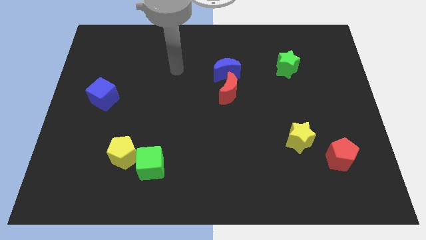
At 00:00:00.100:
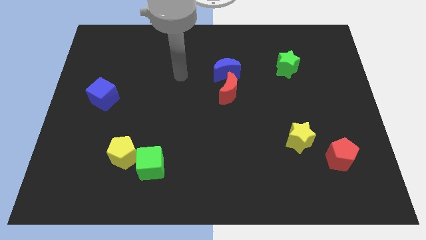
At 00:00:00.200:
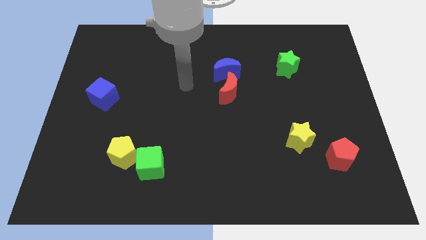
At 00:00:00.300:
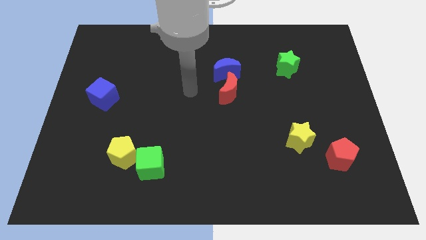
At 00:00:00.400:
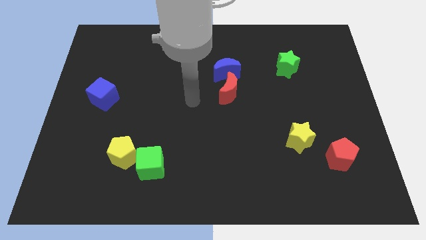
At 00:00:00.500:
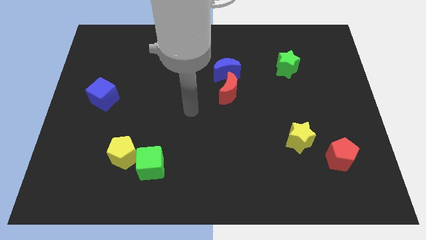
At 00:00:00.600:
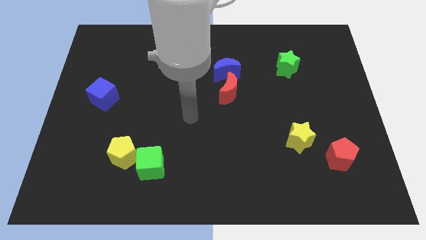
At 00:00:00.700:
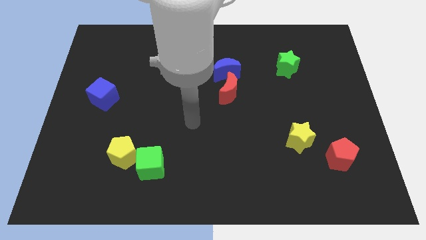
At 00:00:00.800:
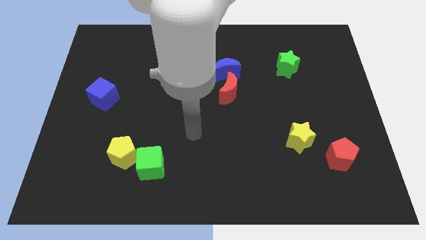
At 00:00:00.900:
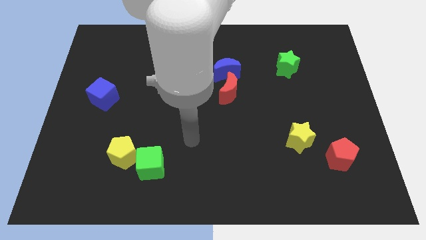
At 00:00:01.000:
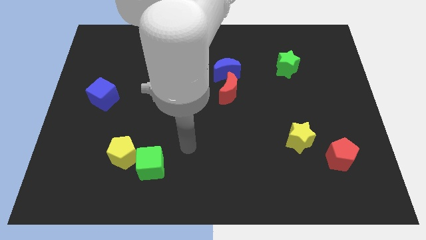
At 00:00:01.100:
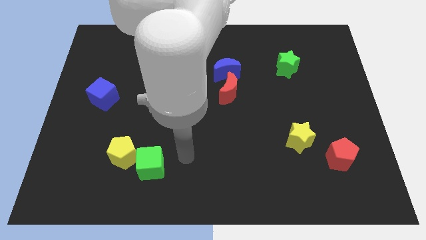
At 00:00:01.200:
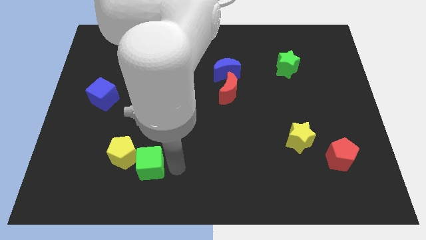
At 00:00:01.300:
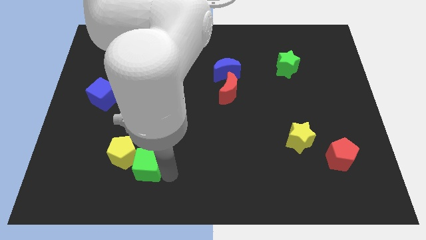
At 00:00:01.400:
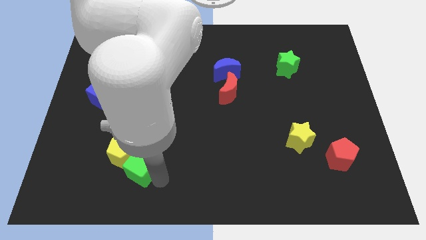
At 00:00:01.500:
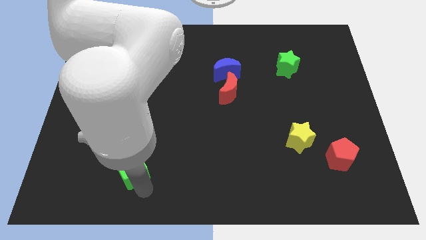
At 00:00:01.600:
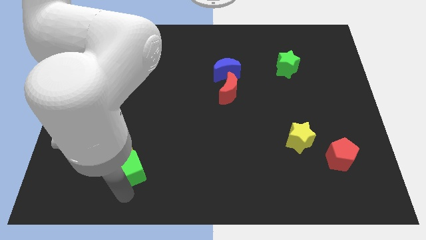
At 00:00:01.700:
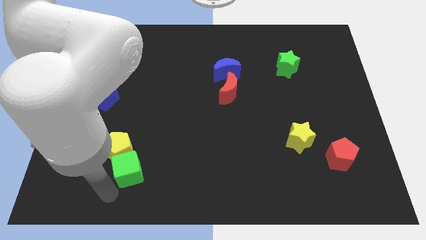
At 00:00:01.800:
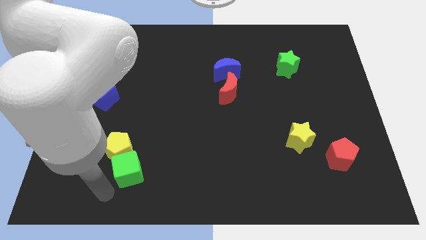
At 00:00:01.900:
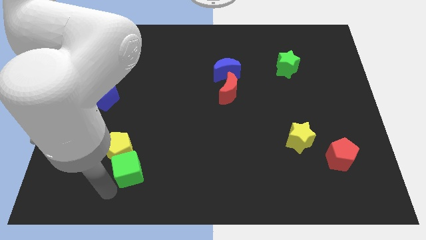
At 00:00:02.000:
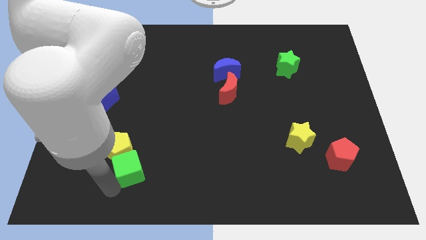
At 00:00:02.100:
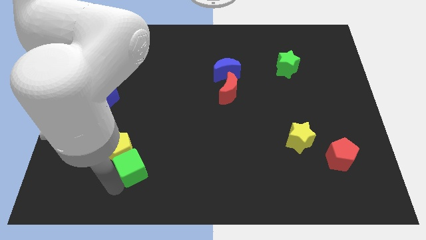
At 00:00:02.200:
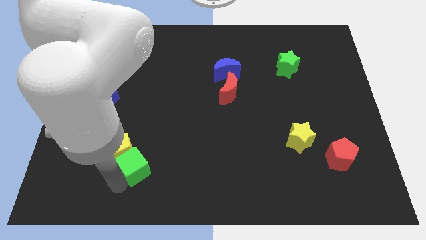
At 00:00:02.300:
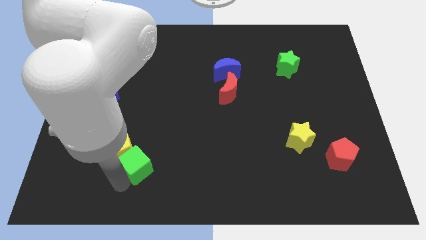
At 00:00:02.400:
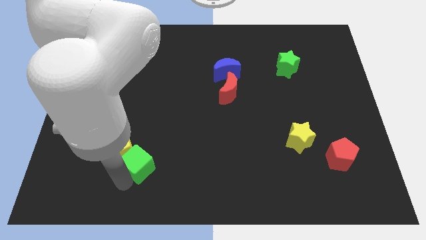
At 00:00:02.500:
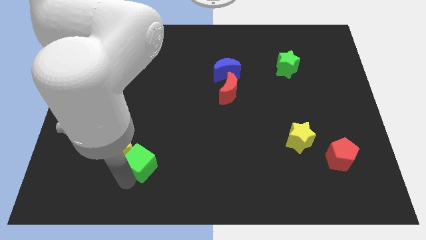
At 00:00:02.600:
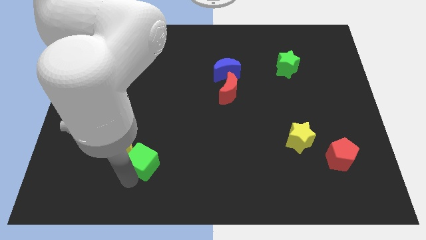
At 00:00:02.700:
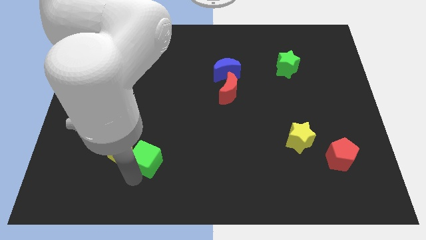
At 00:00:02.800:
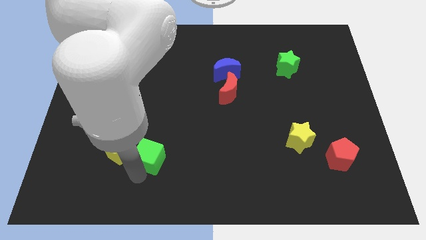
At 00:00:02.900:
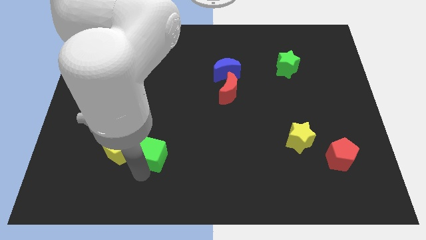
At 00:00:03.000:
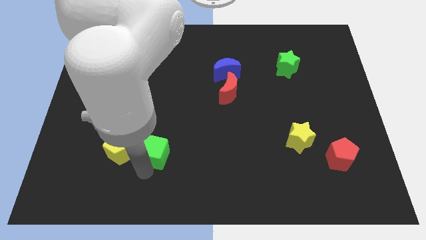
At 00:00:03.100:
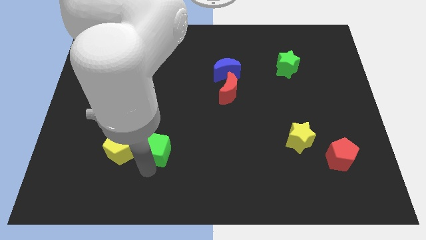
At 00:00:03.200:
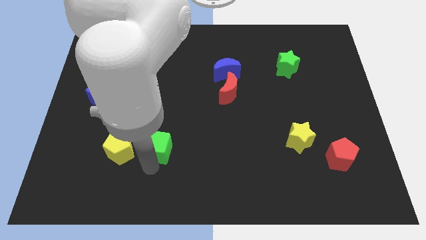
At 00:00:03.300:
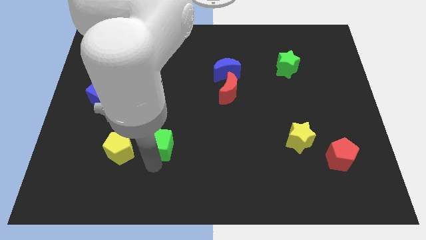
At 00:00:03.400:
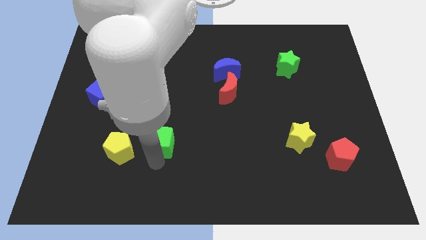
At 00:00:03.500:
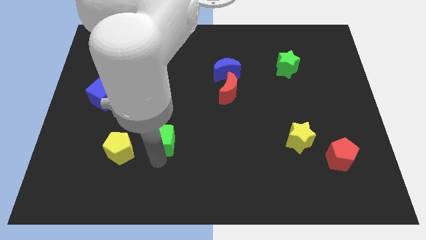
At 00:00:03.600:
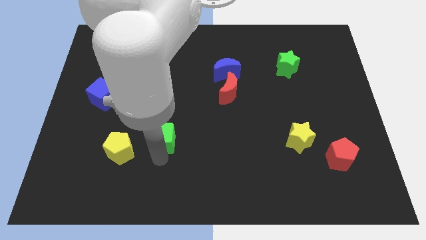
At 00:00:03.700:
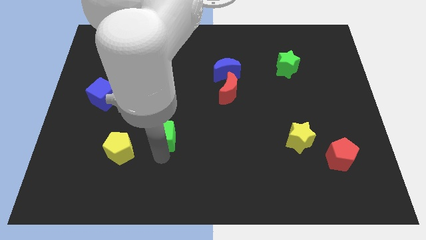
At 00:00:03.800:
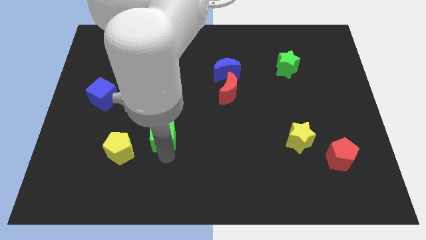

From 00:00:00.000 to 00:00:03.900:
push the green cube up slightly

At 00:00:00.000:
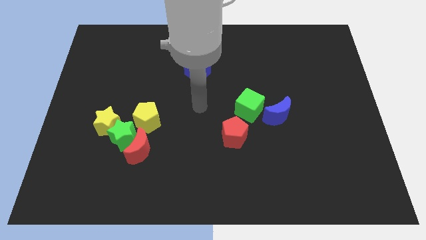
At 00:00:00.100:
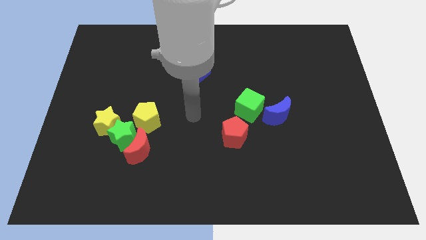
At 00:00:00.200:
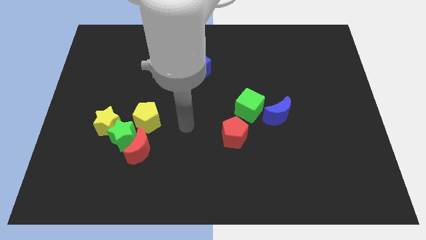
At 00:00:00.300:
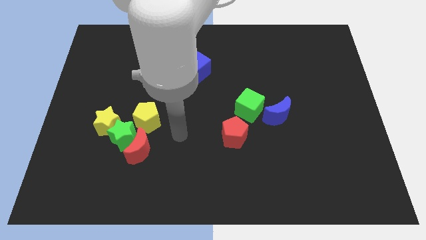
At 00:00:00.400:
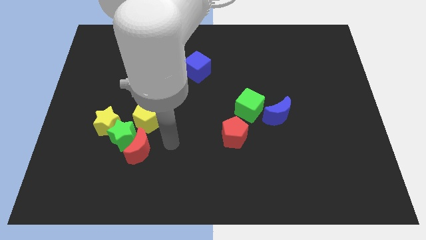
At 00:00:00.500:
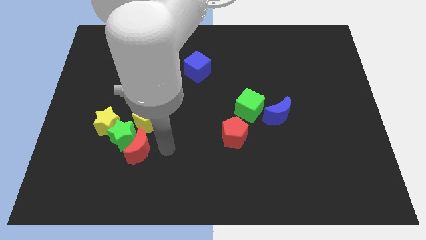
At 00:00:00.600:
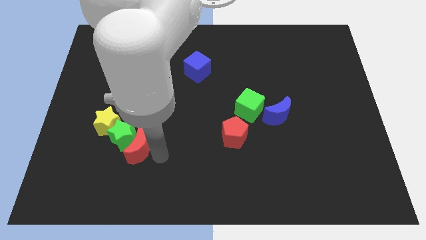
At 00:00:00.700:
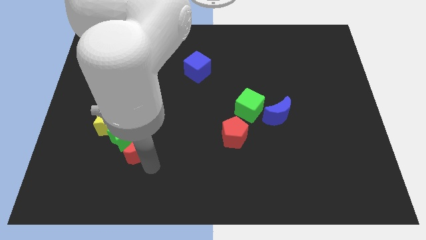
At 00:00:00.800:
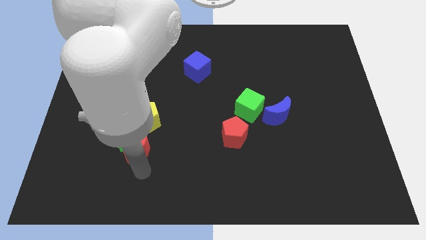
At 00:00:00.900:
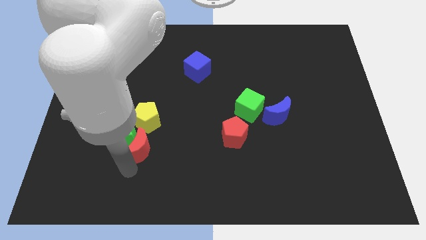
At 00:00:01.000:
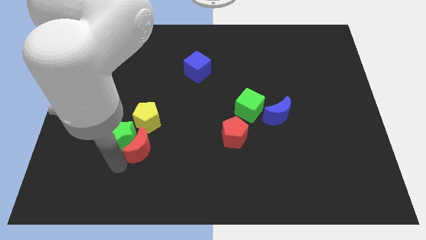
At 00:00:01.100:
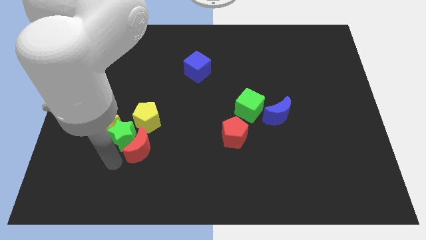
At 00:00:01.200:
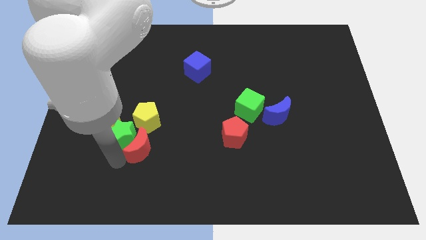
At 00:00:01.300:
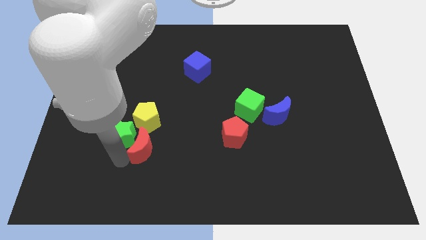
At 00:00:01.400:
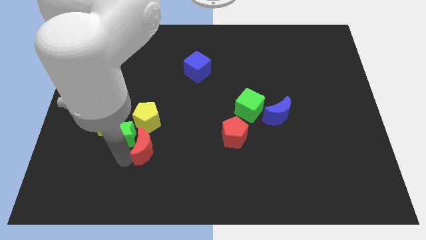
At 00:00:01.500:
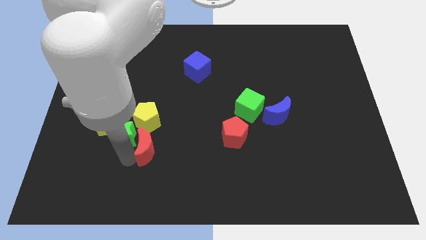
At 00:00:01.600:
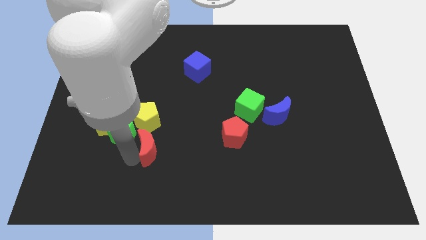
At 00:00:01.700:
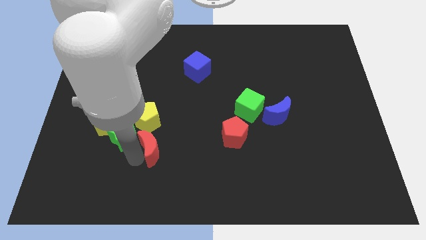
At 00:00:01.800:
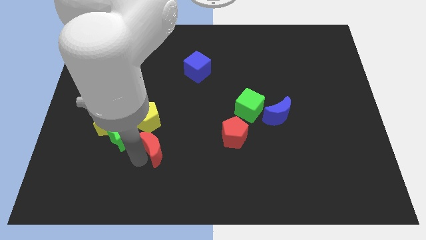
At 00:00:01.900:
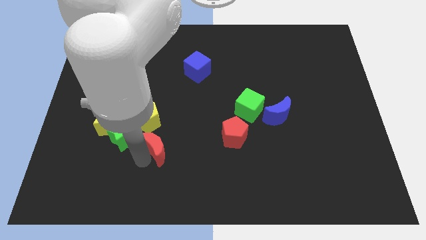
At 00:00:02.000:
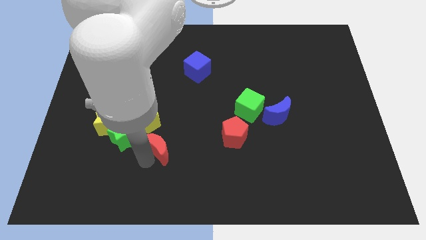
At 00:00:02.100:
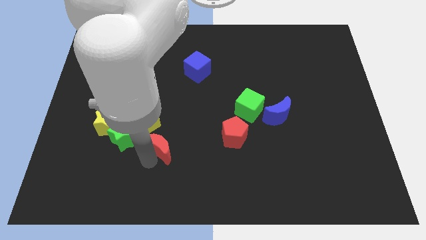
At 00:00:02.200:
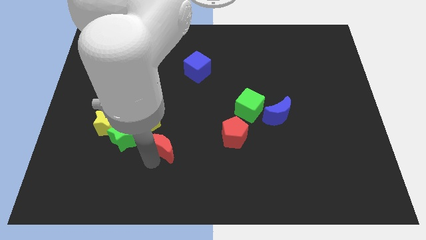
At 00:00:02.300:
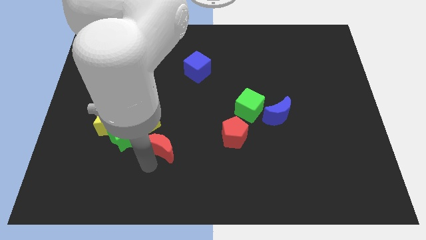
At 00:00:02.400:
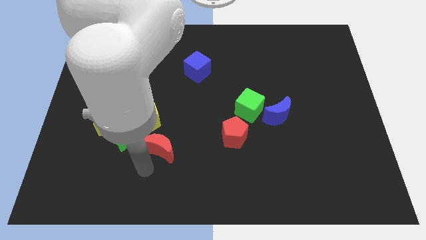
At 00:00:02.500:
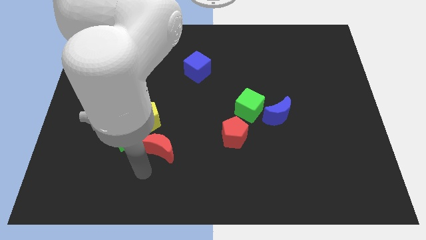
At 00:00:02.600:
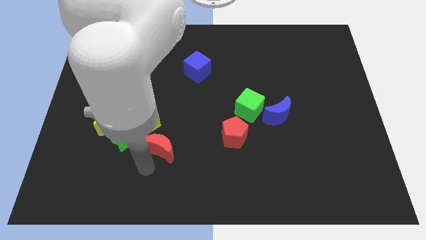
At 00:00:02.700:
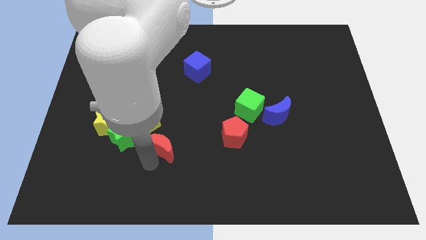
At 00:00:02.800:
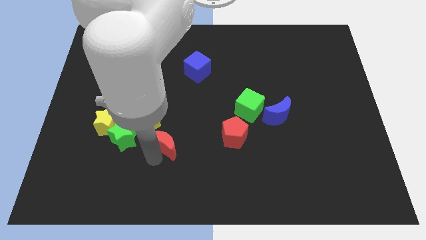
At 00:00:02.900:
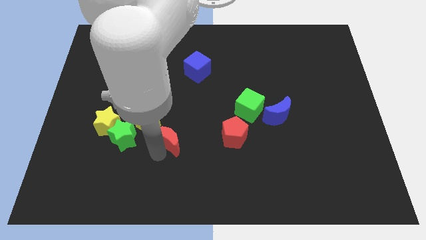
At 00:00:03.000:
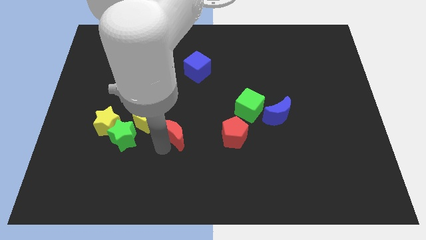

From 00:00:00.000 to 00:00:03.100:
slide the red moon a little upwards and to the right

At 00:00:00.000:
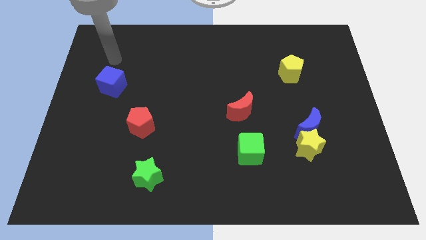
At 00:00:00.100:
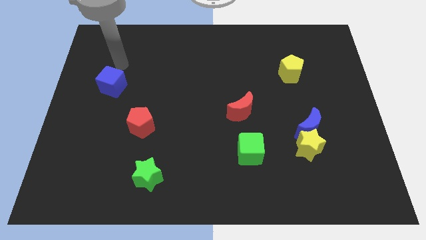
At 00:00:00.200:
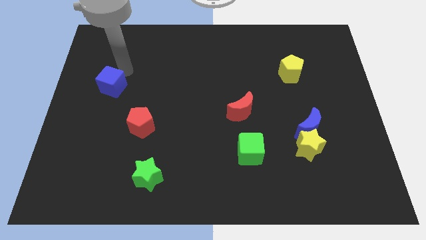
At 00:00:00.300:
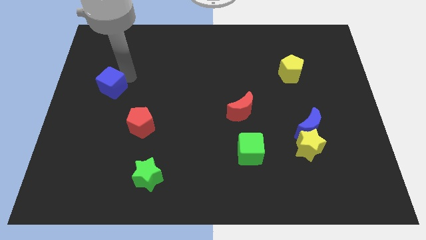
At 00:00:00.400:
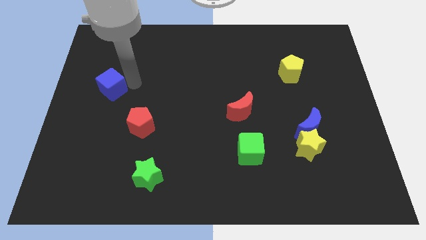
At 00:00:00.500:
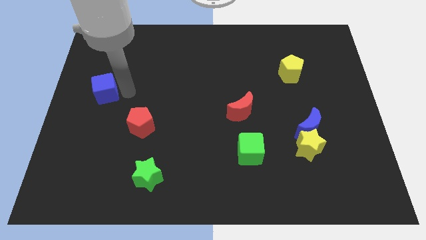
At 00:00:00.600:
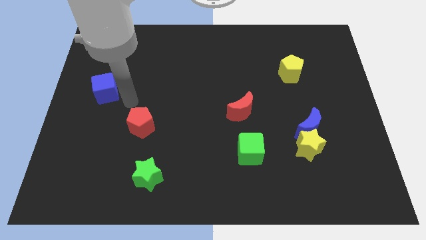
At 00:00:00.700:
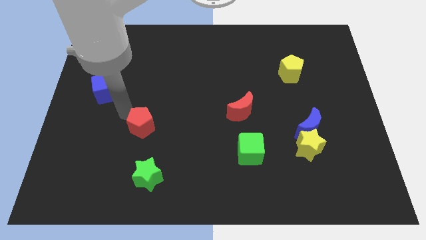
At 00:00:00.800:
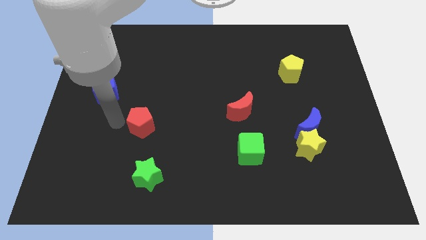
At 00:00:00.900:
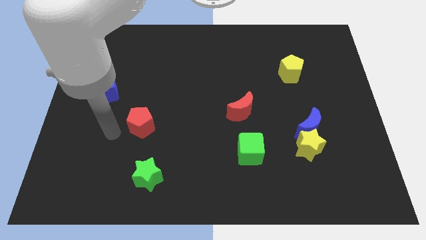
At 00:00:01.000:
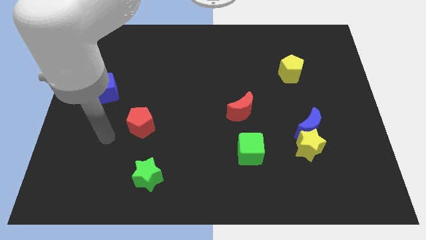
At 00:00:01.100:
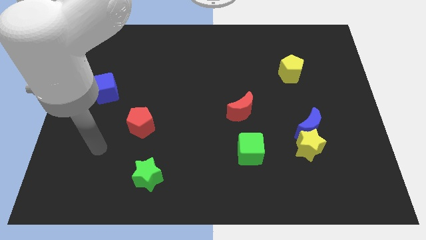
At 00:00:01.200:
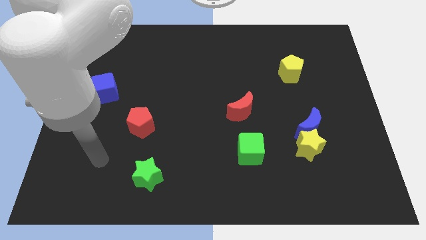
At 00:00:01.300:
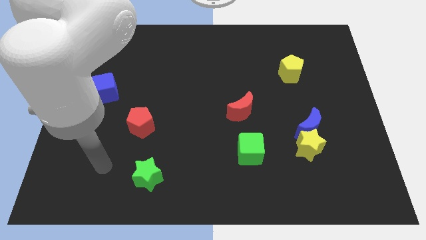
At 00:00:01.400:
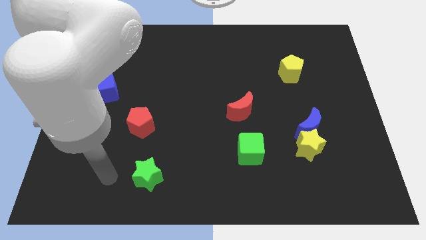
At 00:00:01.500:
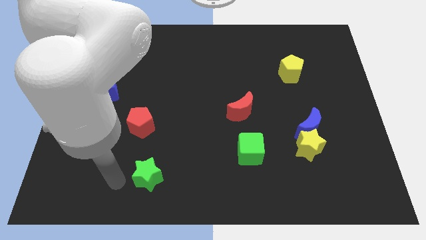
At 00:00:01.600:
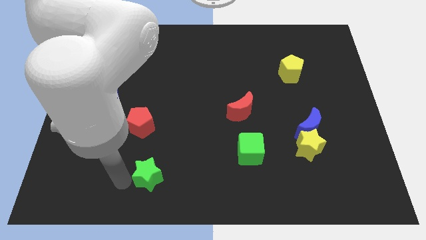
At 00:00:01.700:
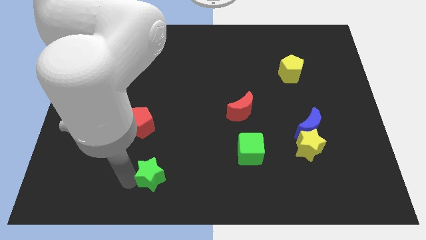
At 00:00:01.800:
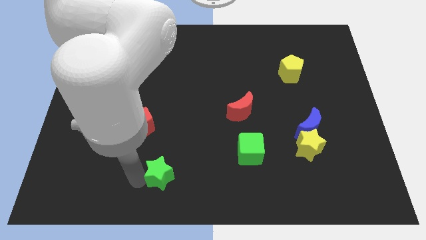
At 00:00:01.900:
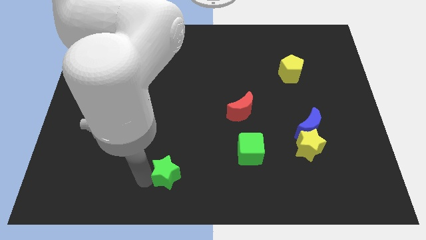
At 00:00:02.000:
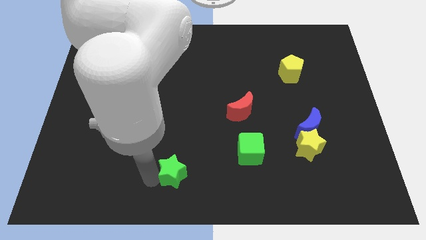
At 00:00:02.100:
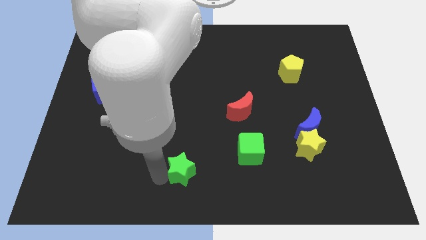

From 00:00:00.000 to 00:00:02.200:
move the green star a little bit to the right
